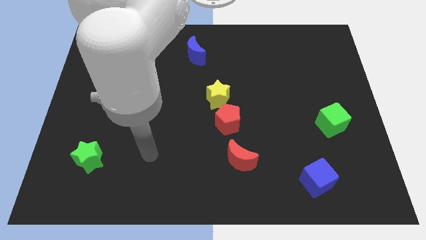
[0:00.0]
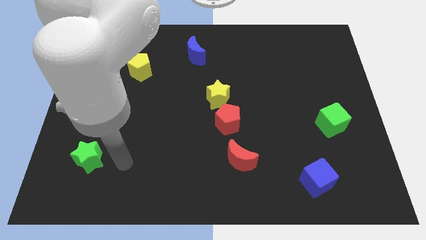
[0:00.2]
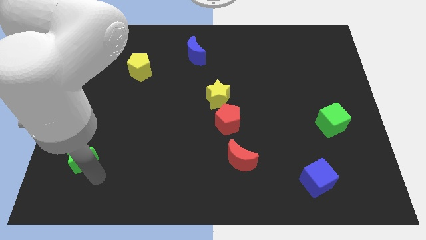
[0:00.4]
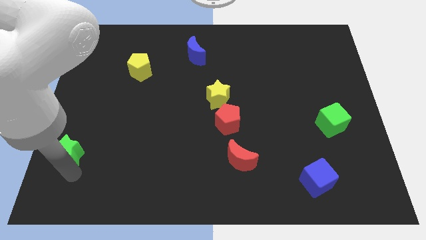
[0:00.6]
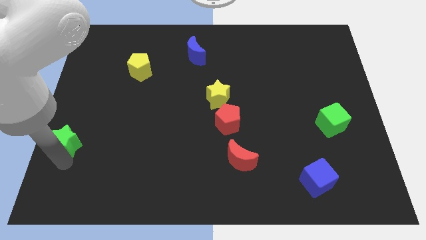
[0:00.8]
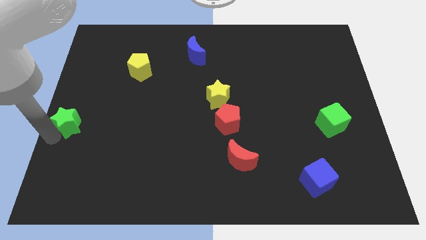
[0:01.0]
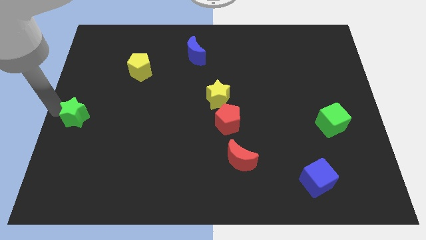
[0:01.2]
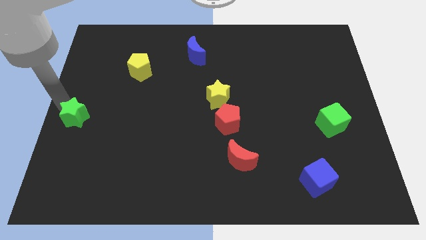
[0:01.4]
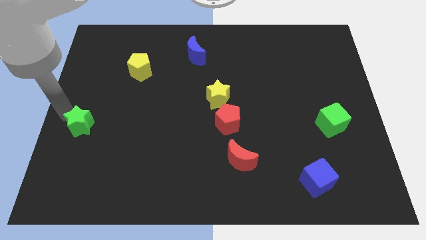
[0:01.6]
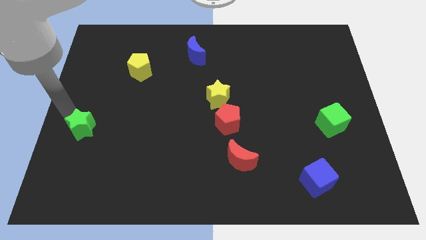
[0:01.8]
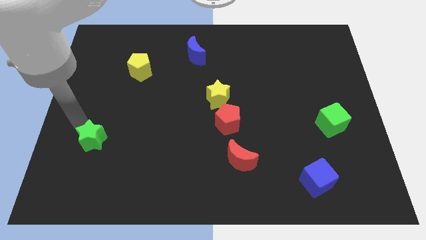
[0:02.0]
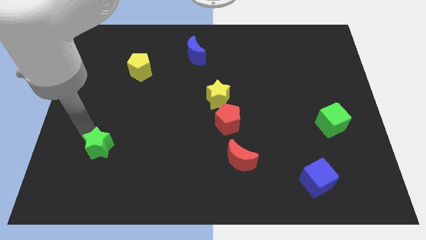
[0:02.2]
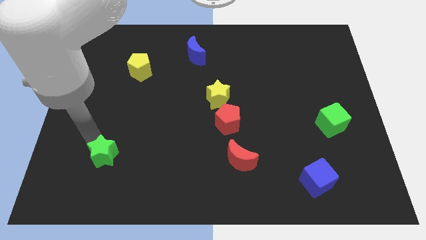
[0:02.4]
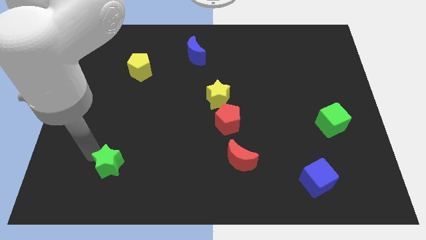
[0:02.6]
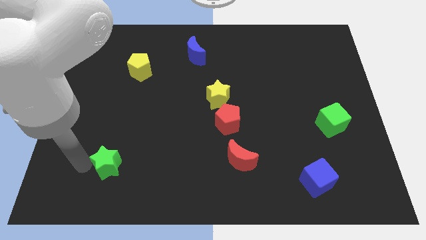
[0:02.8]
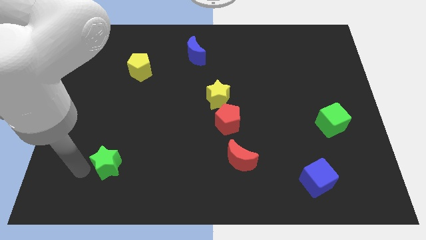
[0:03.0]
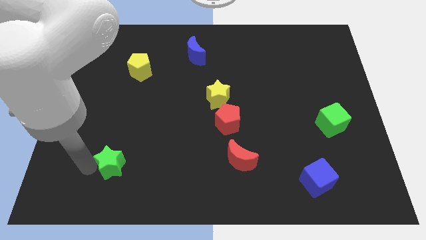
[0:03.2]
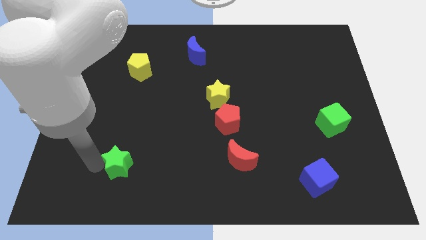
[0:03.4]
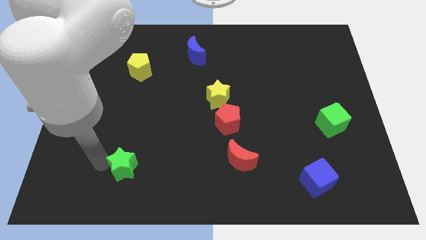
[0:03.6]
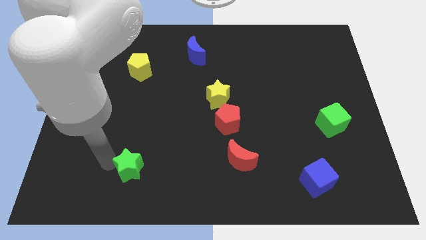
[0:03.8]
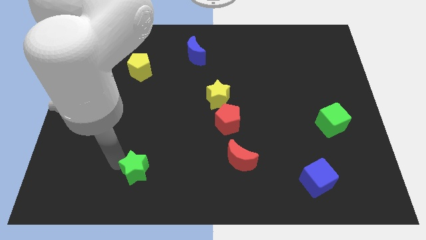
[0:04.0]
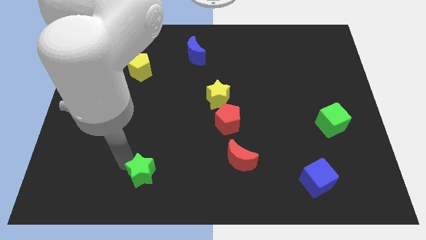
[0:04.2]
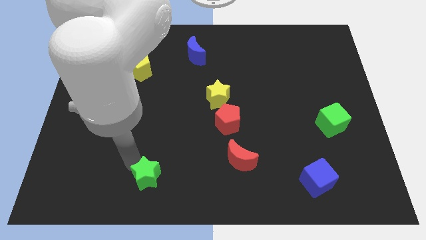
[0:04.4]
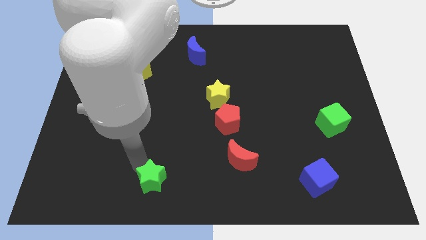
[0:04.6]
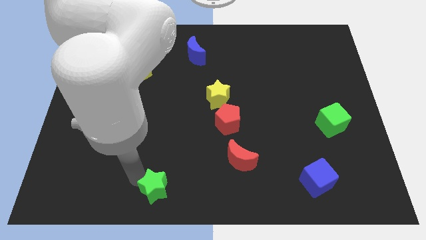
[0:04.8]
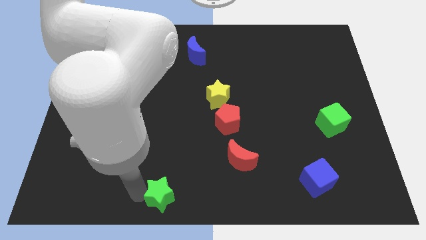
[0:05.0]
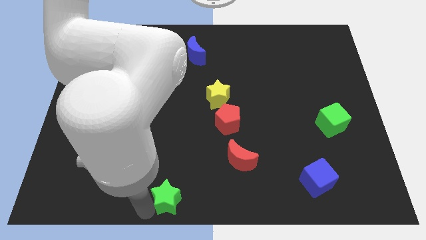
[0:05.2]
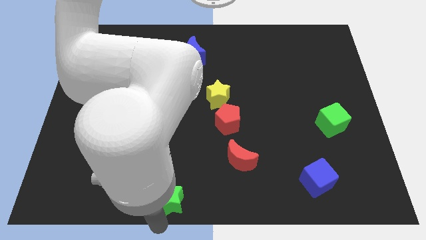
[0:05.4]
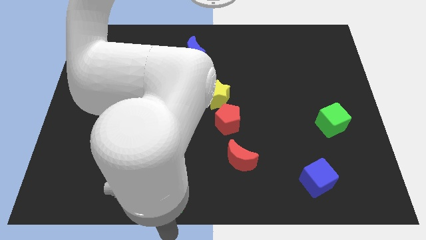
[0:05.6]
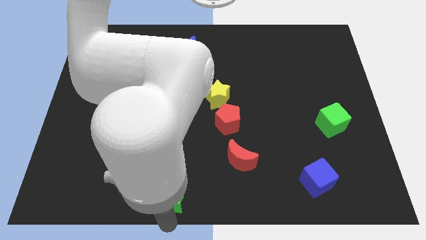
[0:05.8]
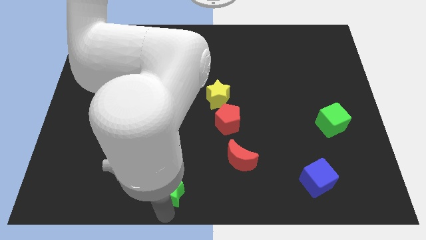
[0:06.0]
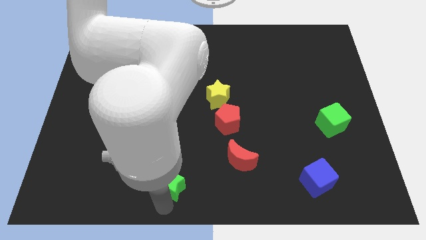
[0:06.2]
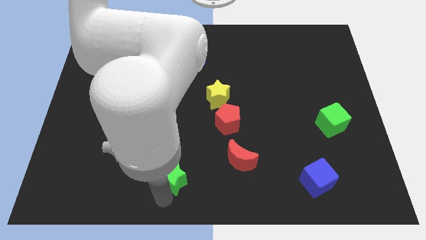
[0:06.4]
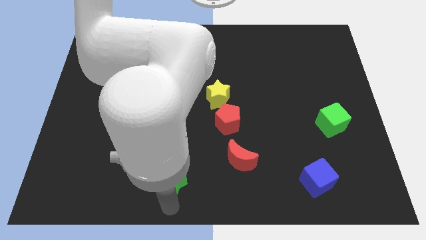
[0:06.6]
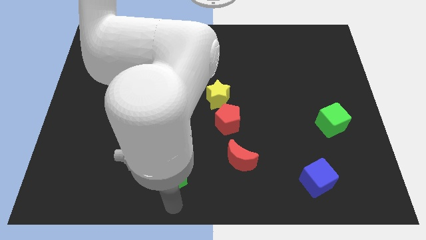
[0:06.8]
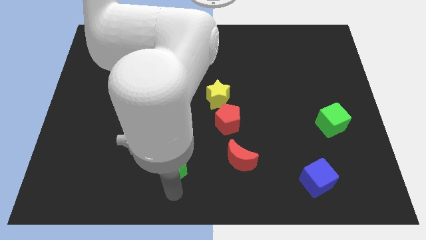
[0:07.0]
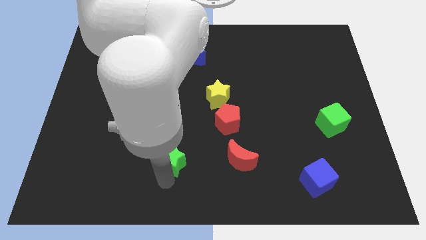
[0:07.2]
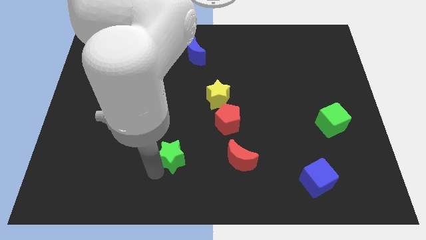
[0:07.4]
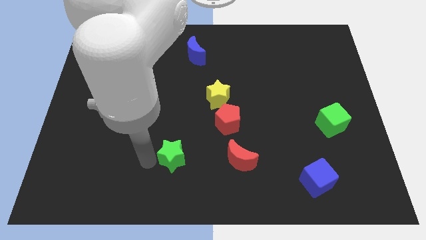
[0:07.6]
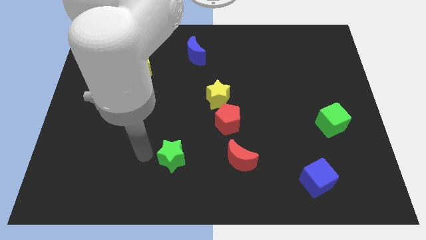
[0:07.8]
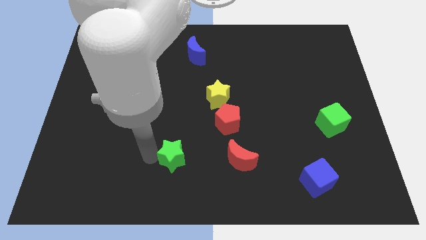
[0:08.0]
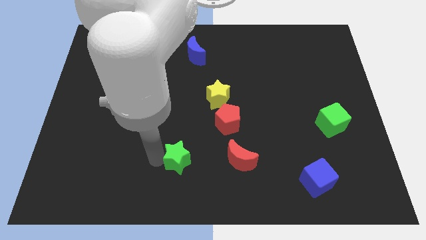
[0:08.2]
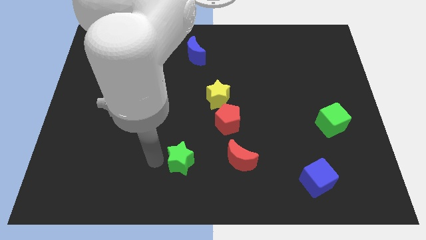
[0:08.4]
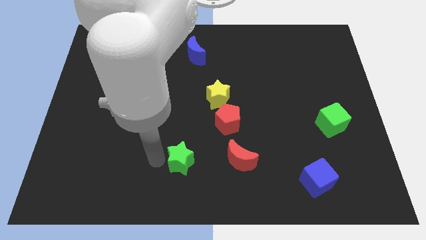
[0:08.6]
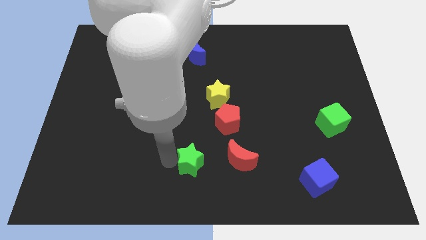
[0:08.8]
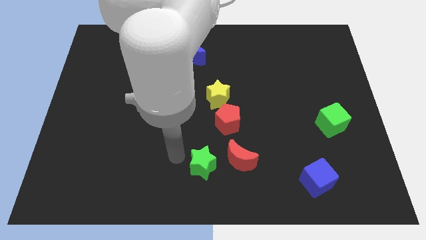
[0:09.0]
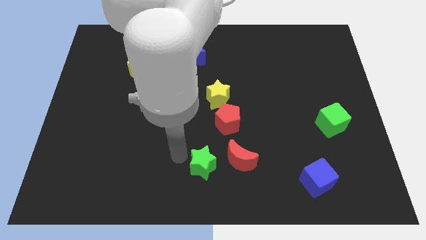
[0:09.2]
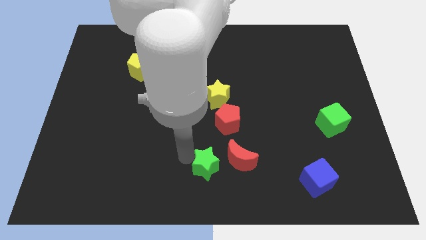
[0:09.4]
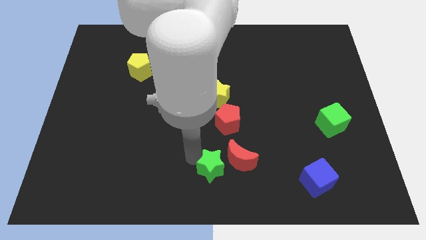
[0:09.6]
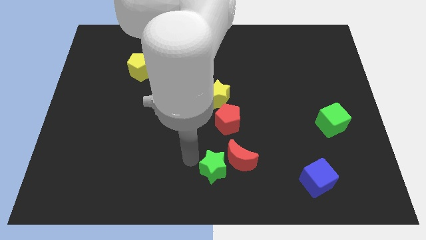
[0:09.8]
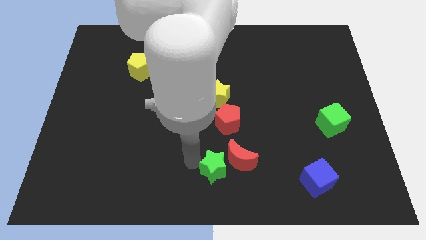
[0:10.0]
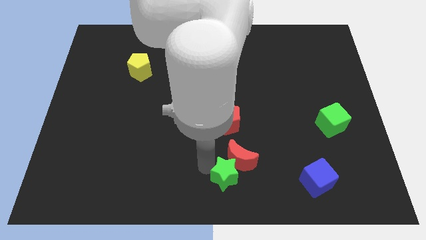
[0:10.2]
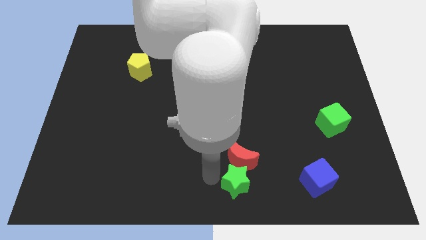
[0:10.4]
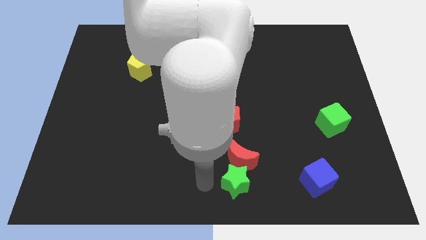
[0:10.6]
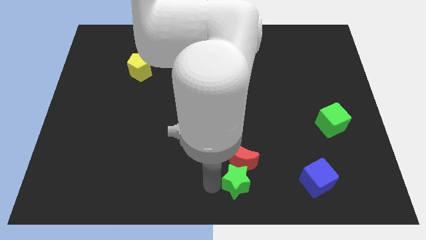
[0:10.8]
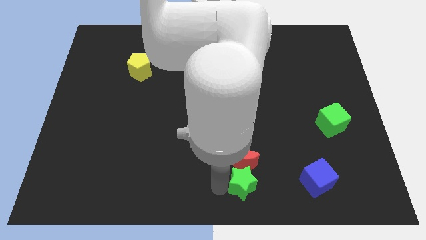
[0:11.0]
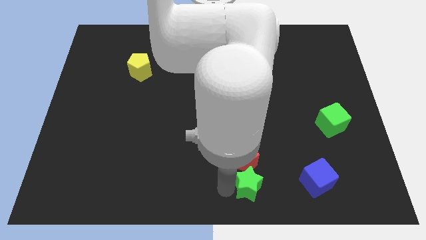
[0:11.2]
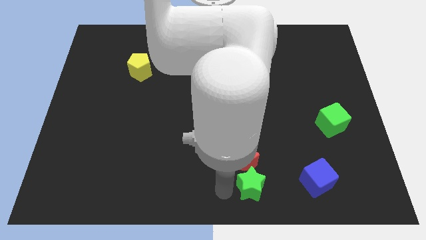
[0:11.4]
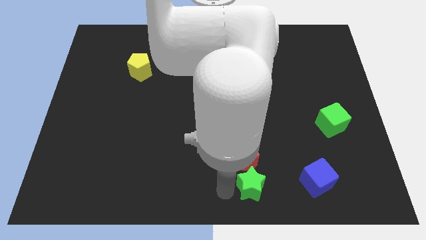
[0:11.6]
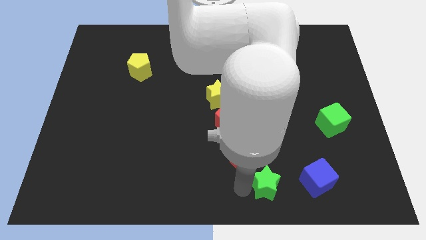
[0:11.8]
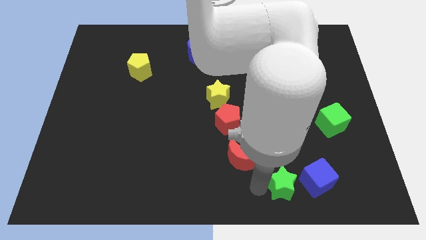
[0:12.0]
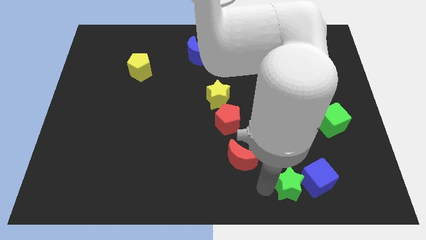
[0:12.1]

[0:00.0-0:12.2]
move the green star towards the blue cube

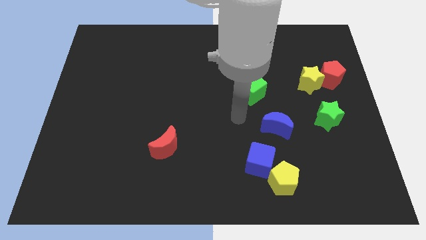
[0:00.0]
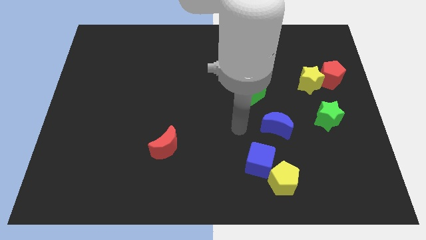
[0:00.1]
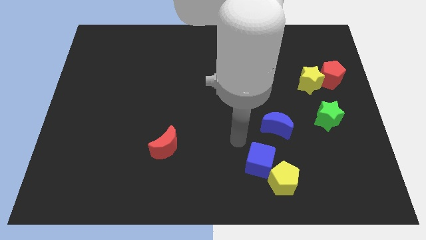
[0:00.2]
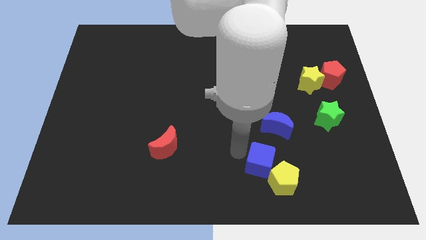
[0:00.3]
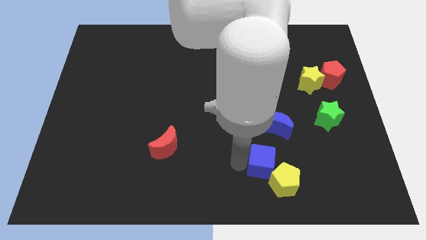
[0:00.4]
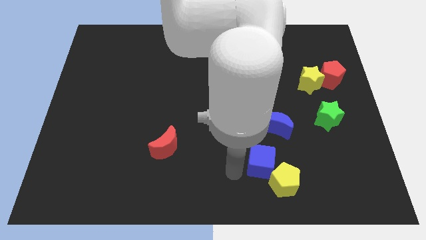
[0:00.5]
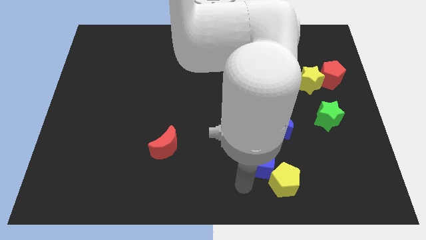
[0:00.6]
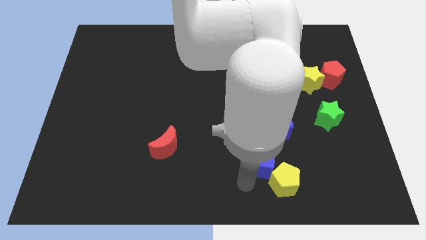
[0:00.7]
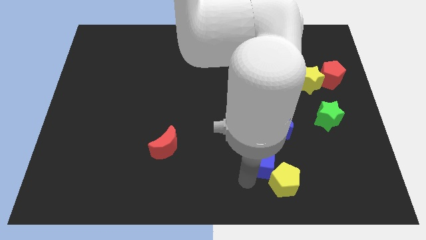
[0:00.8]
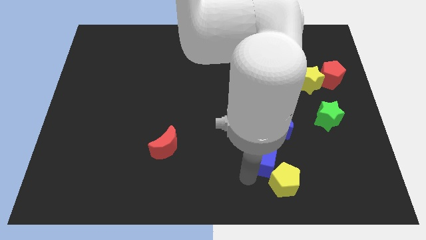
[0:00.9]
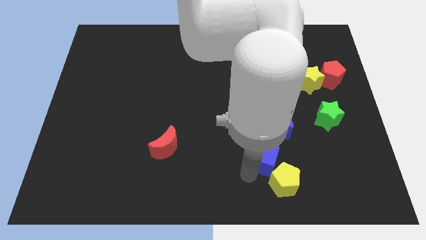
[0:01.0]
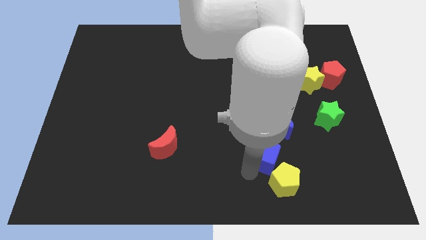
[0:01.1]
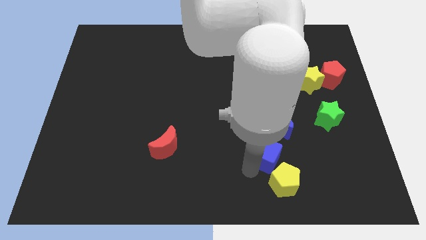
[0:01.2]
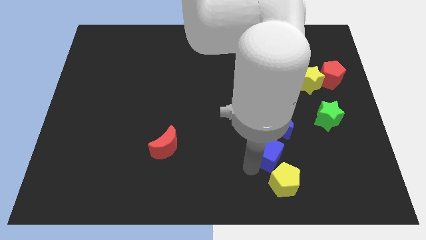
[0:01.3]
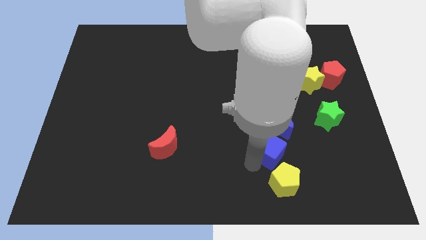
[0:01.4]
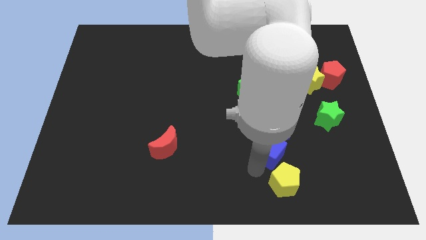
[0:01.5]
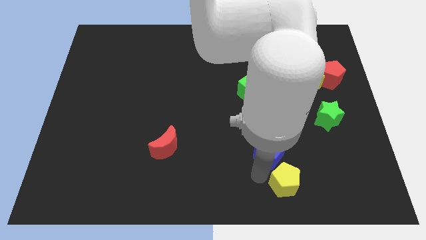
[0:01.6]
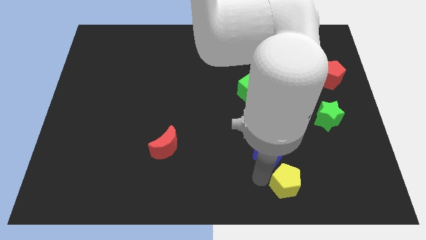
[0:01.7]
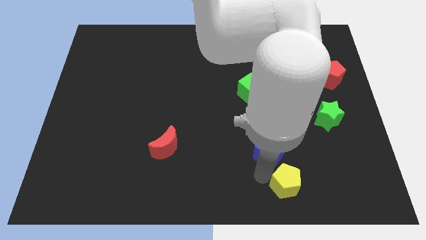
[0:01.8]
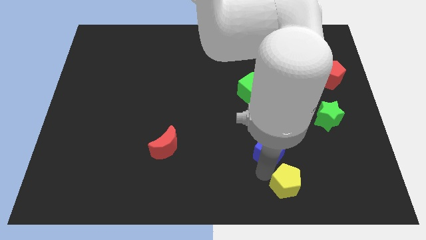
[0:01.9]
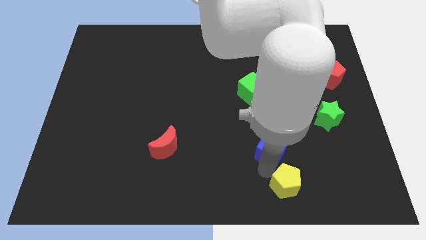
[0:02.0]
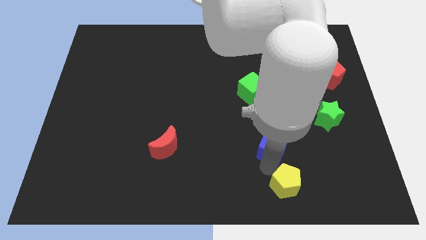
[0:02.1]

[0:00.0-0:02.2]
push the blue cube next to the blue moon
